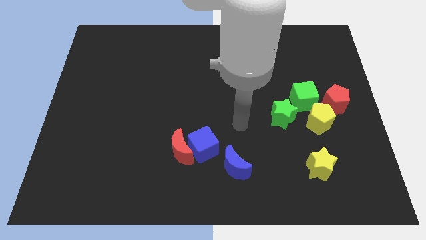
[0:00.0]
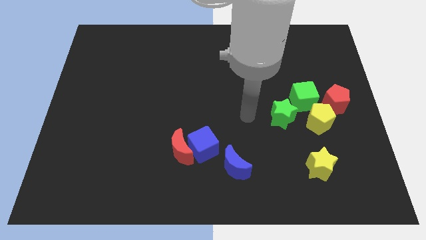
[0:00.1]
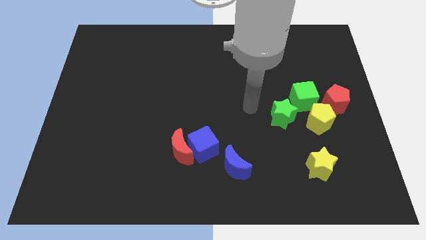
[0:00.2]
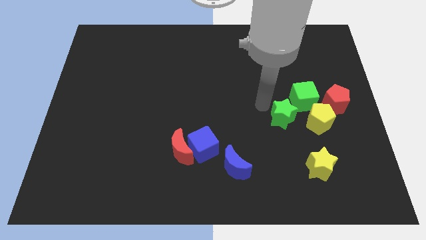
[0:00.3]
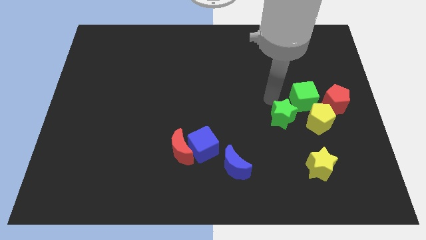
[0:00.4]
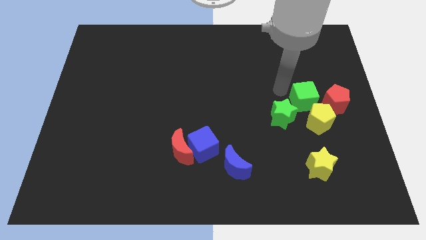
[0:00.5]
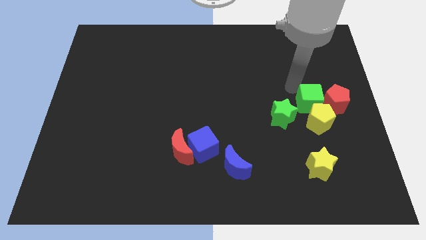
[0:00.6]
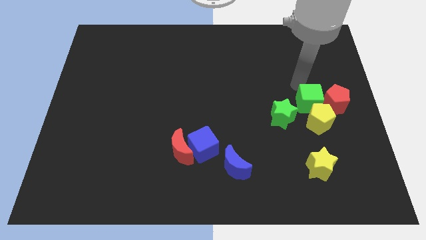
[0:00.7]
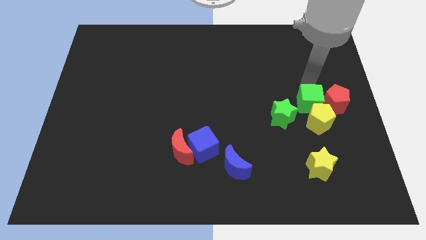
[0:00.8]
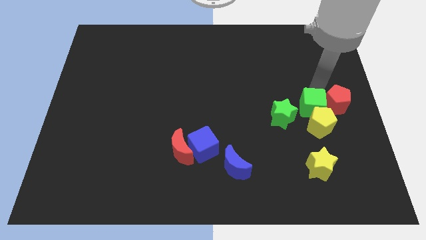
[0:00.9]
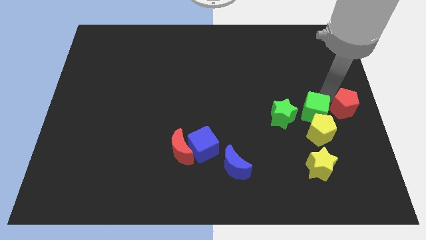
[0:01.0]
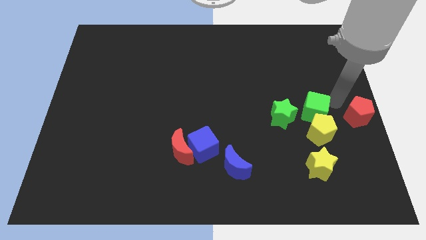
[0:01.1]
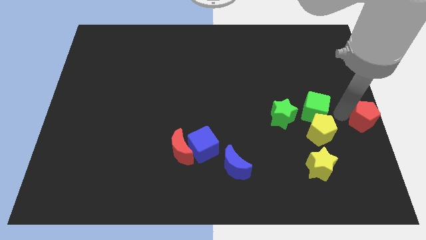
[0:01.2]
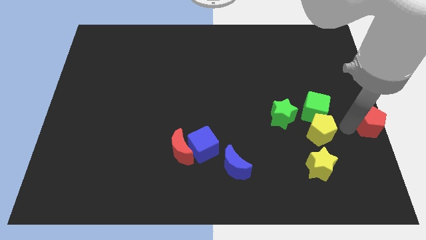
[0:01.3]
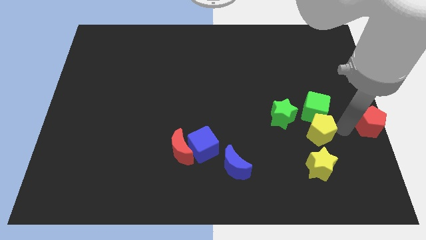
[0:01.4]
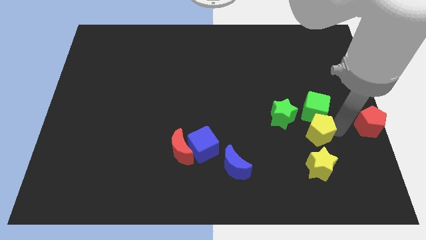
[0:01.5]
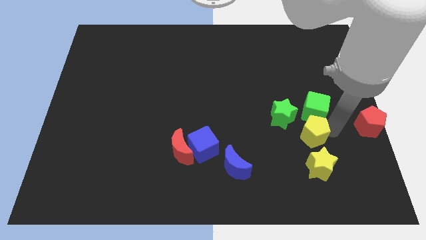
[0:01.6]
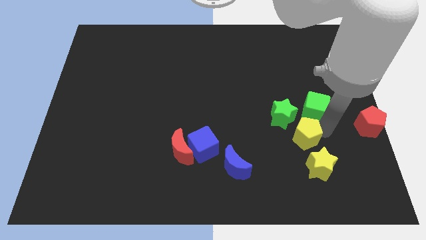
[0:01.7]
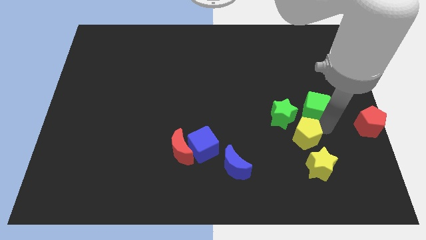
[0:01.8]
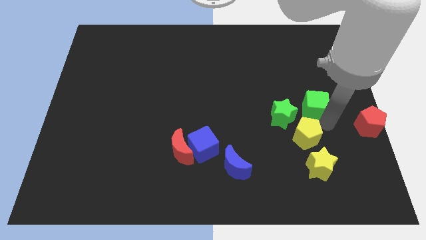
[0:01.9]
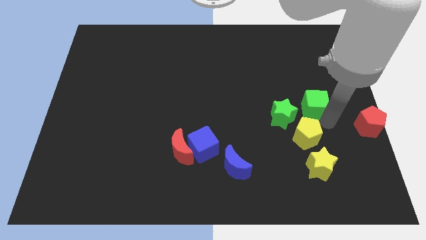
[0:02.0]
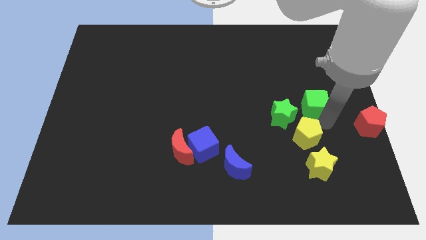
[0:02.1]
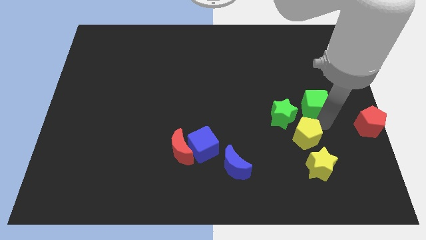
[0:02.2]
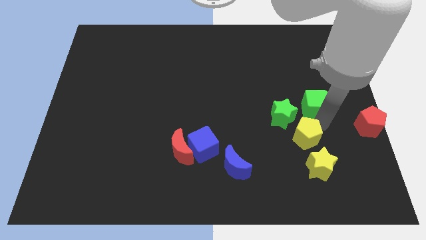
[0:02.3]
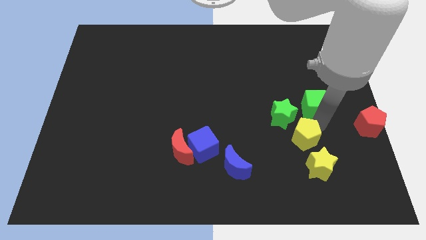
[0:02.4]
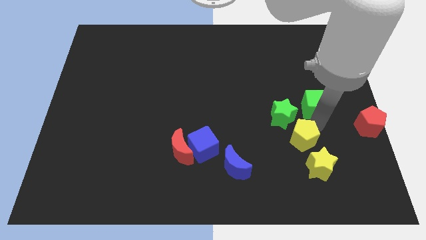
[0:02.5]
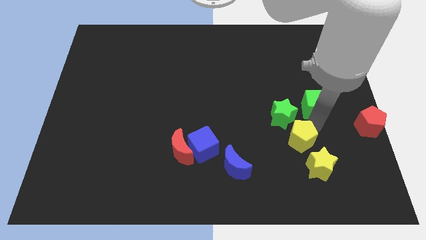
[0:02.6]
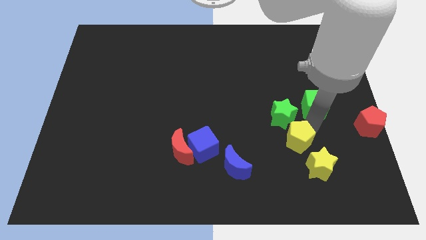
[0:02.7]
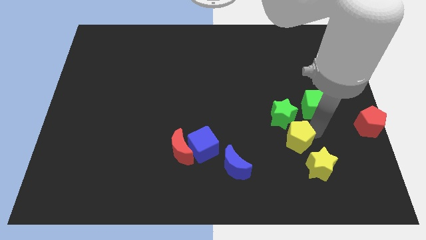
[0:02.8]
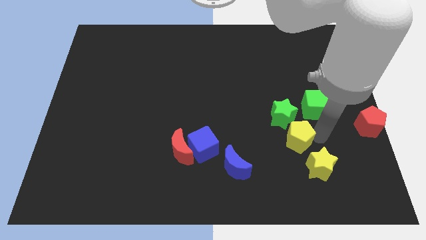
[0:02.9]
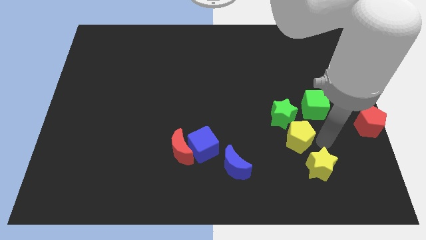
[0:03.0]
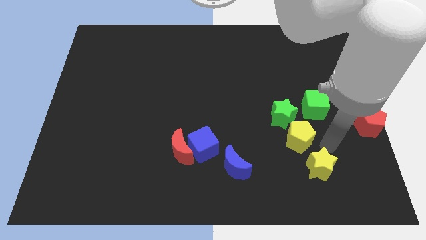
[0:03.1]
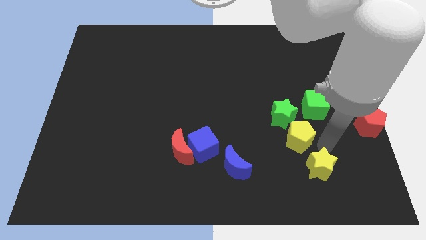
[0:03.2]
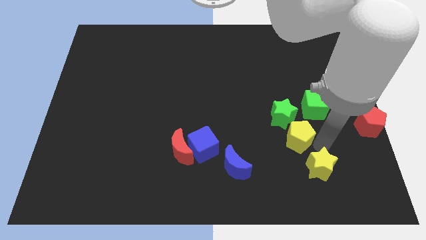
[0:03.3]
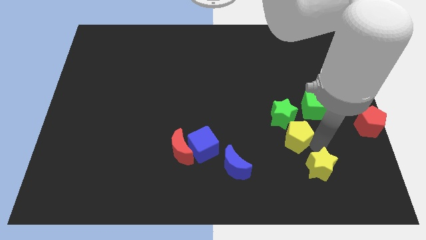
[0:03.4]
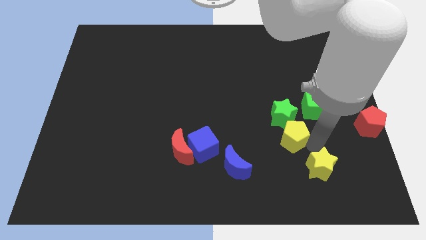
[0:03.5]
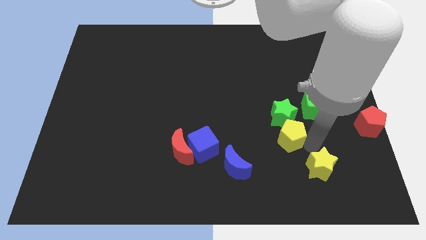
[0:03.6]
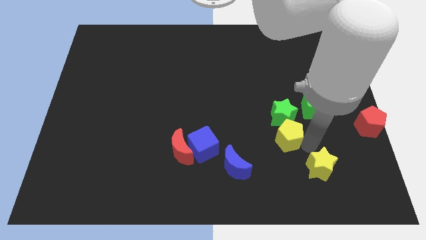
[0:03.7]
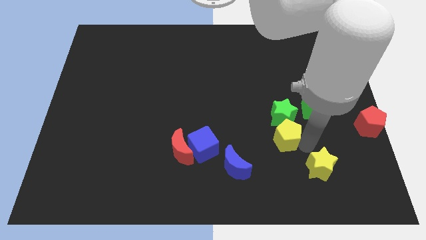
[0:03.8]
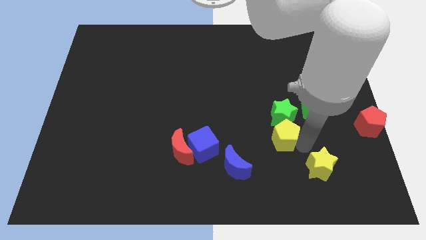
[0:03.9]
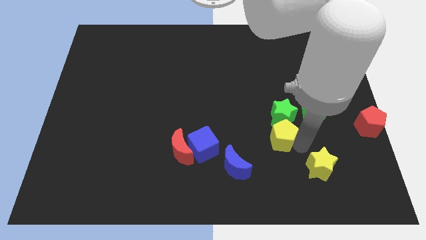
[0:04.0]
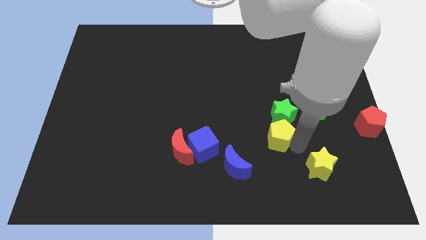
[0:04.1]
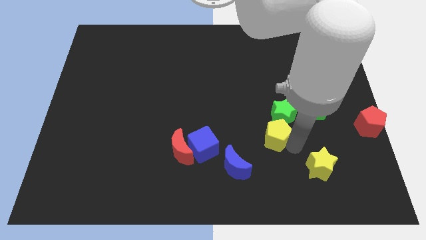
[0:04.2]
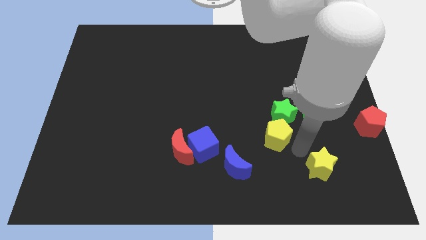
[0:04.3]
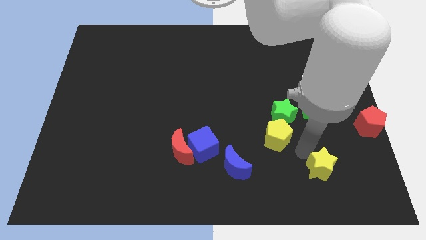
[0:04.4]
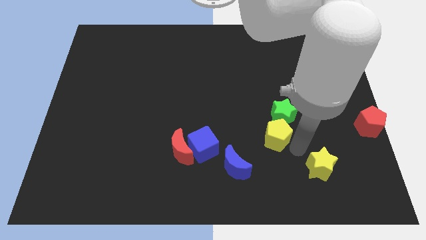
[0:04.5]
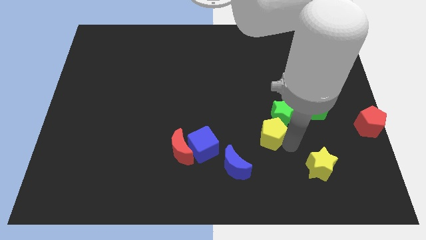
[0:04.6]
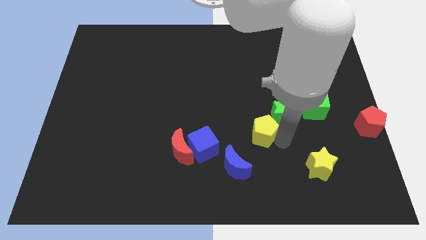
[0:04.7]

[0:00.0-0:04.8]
put the yellow pentagon left of the green star

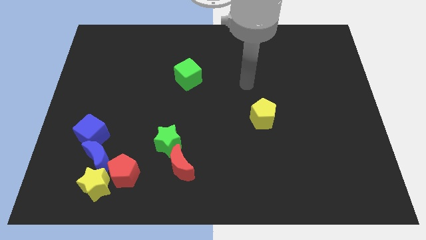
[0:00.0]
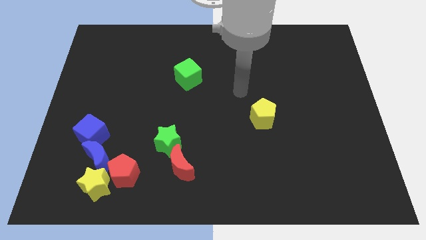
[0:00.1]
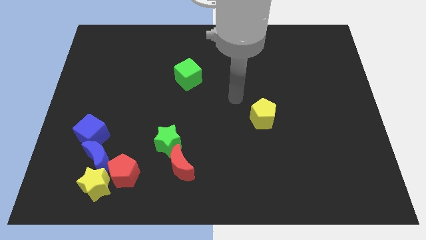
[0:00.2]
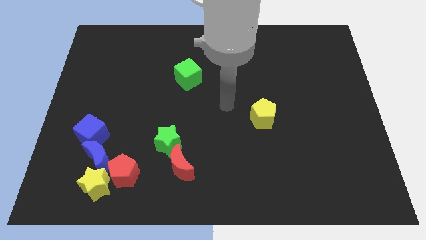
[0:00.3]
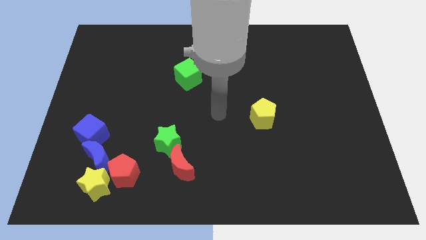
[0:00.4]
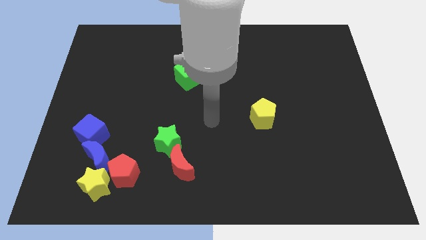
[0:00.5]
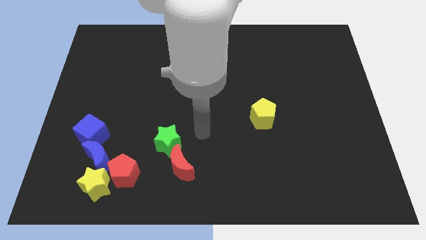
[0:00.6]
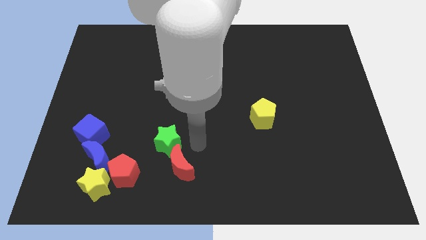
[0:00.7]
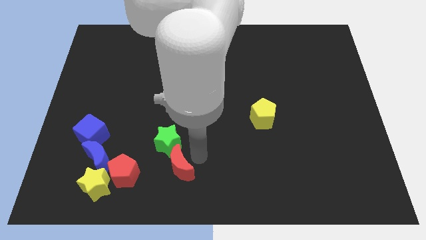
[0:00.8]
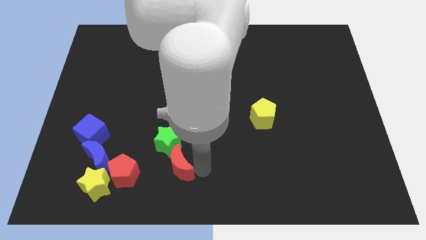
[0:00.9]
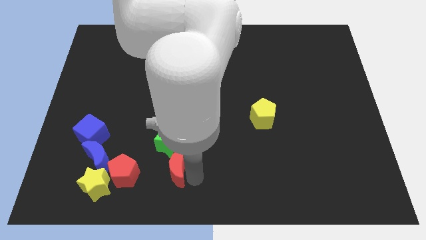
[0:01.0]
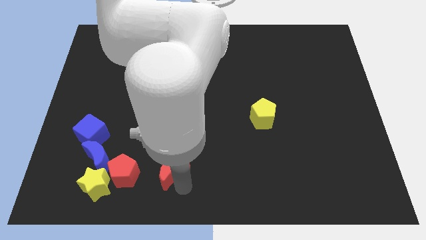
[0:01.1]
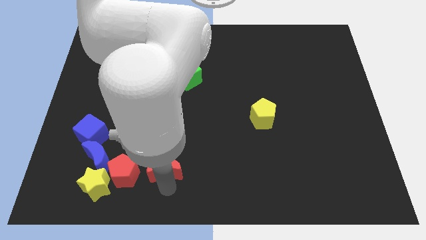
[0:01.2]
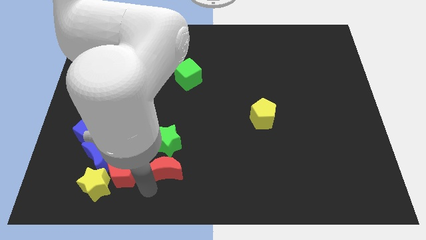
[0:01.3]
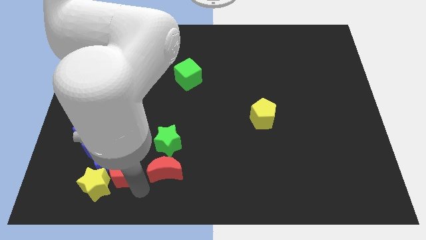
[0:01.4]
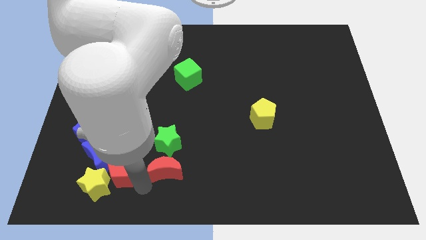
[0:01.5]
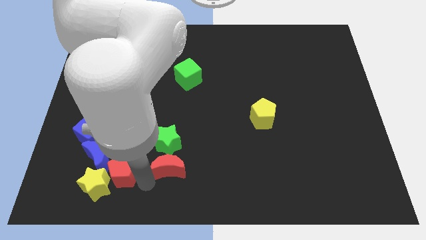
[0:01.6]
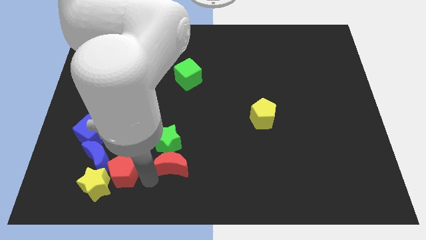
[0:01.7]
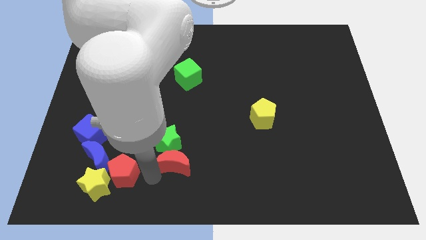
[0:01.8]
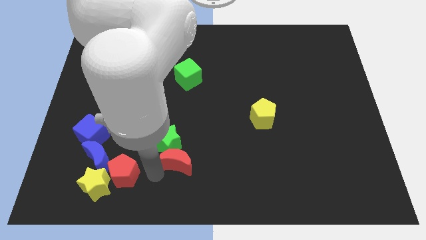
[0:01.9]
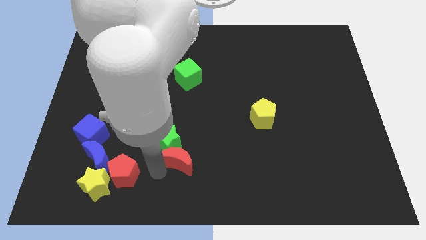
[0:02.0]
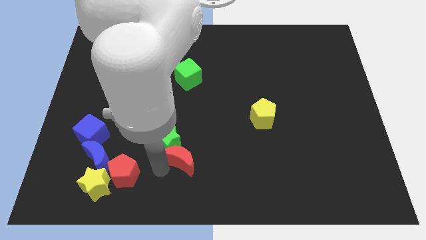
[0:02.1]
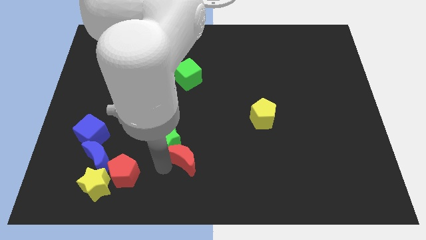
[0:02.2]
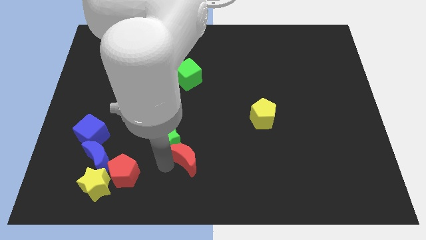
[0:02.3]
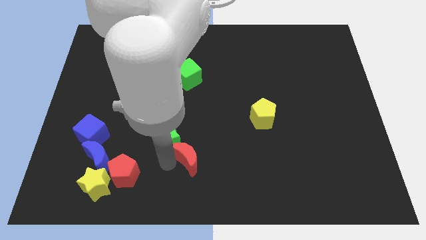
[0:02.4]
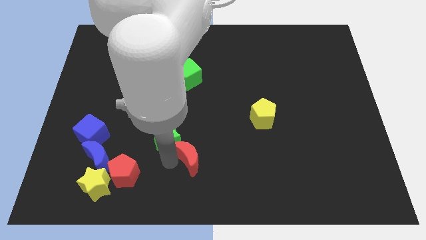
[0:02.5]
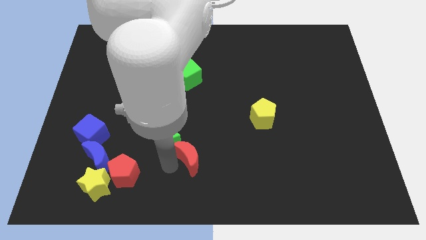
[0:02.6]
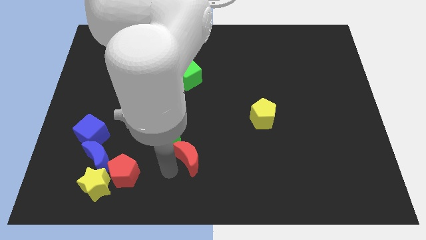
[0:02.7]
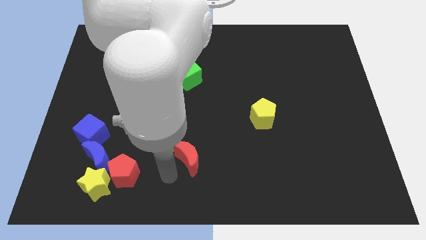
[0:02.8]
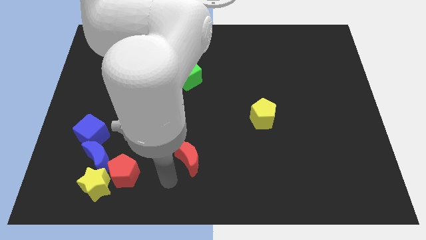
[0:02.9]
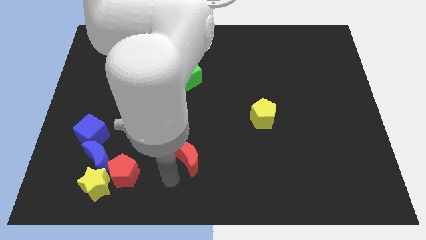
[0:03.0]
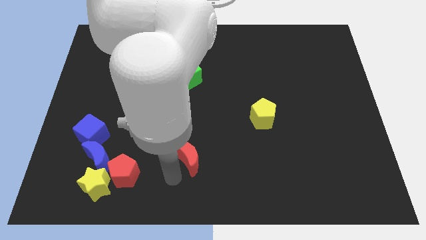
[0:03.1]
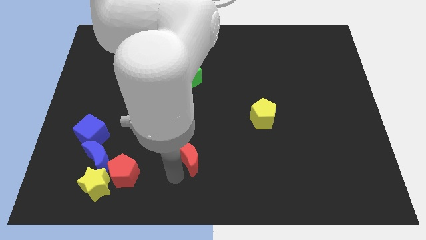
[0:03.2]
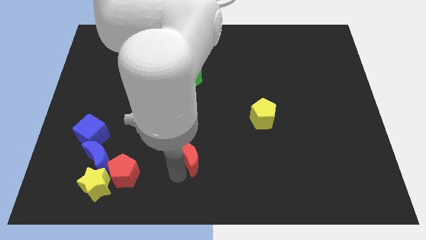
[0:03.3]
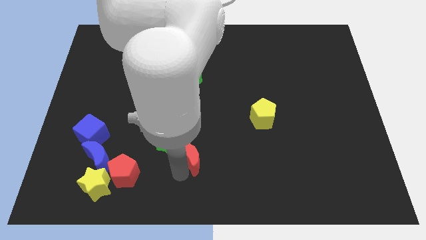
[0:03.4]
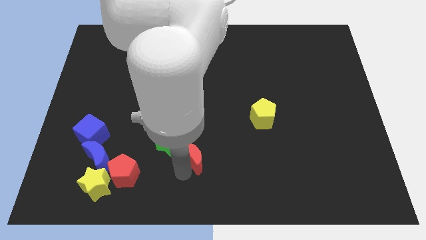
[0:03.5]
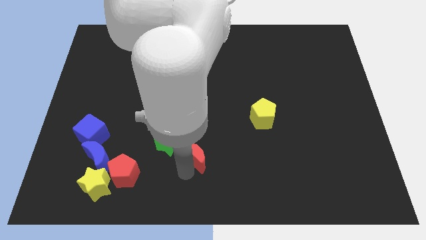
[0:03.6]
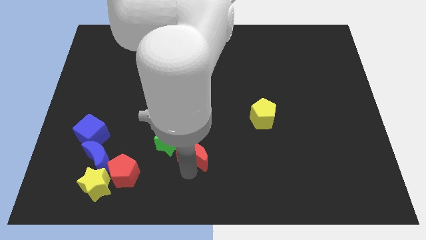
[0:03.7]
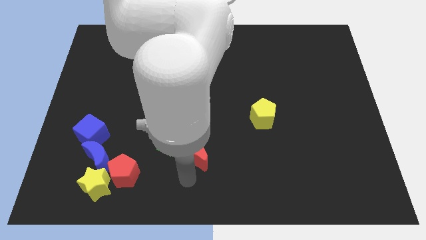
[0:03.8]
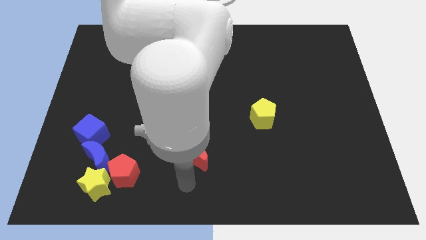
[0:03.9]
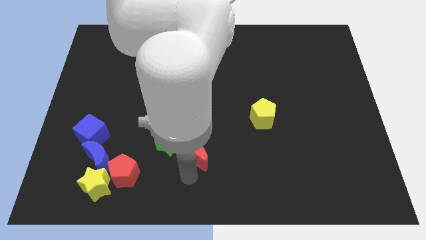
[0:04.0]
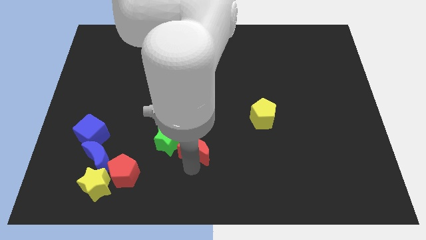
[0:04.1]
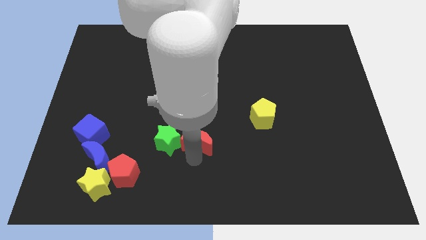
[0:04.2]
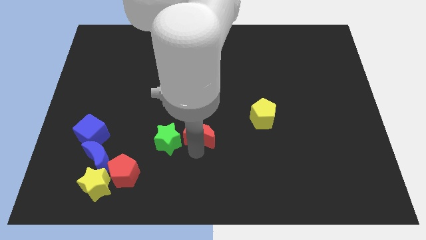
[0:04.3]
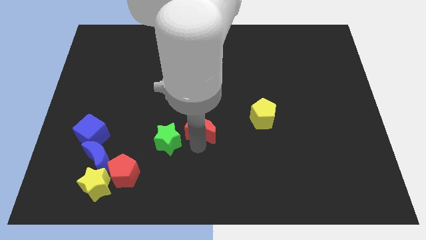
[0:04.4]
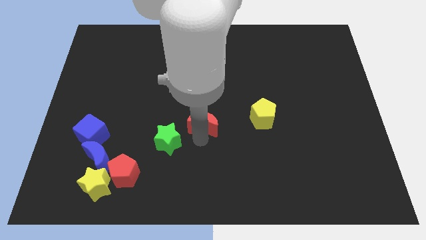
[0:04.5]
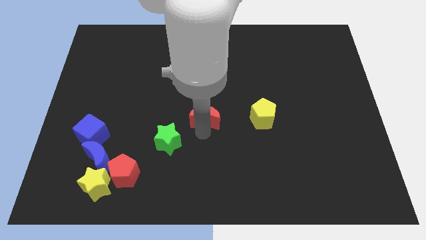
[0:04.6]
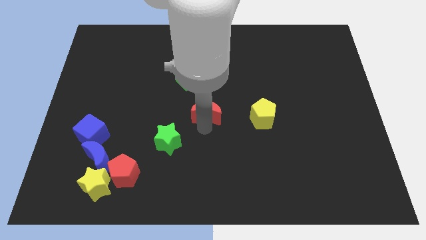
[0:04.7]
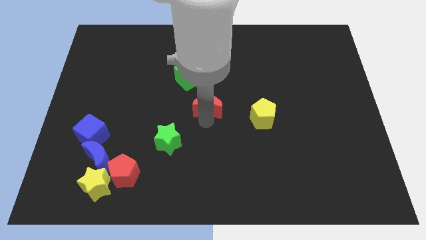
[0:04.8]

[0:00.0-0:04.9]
slide the red moon to the bottom right of the green cube
